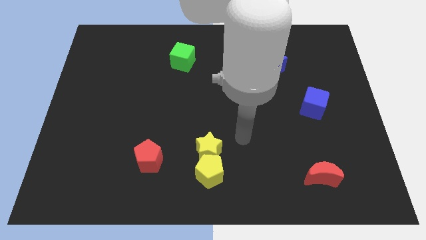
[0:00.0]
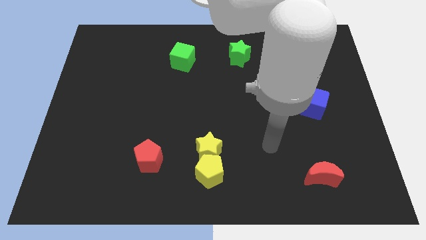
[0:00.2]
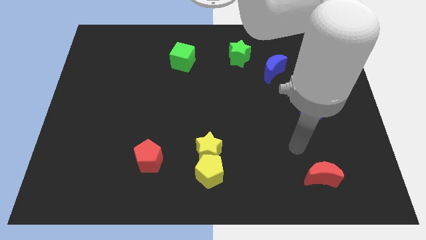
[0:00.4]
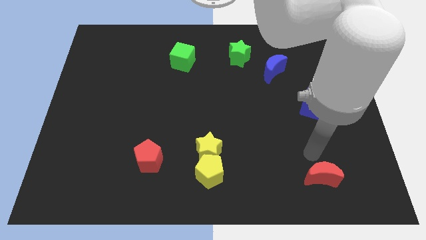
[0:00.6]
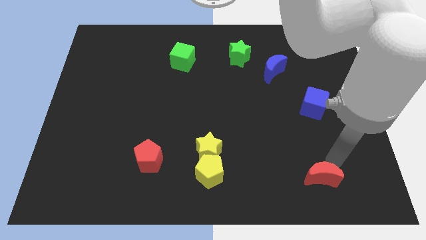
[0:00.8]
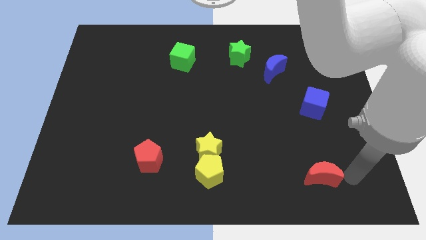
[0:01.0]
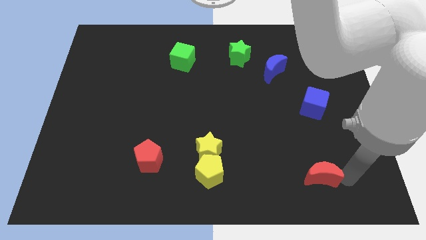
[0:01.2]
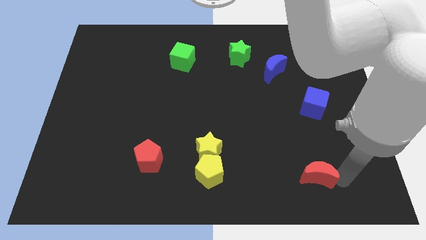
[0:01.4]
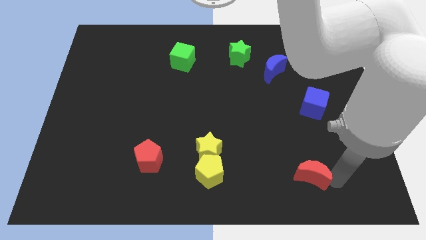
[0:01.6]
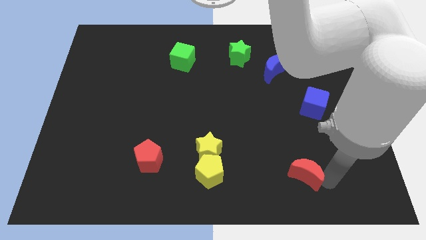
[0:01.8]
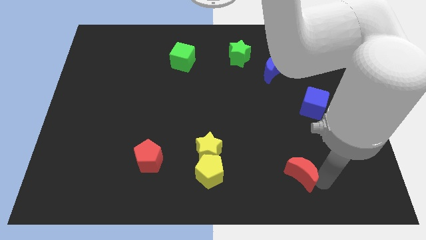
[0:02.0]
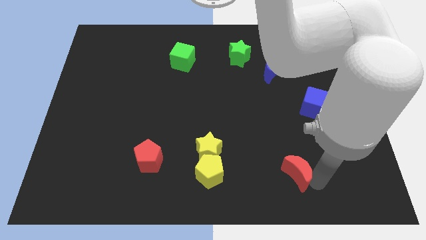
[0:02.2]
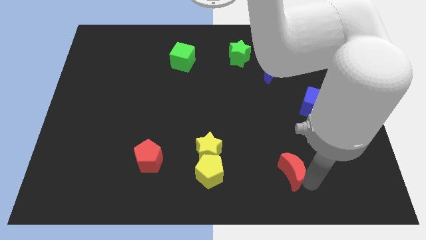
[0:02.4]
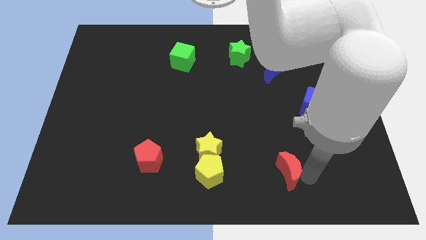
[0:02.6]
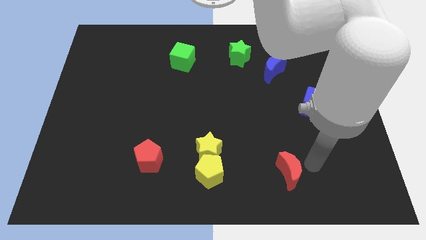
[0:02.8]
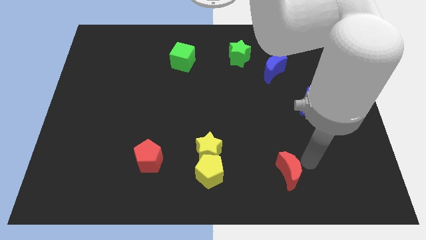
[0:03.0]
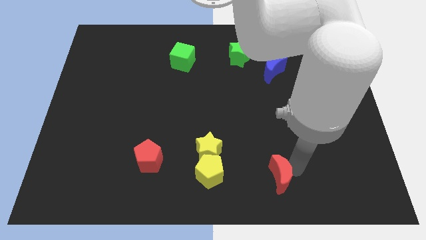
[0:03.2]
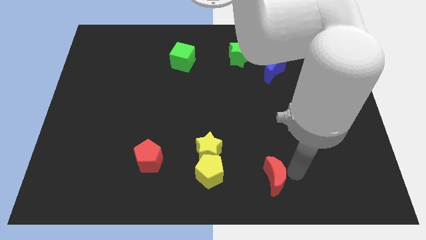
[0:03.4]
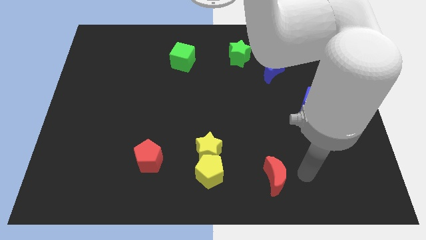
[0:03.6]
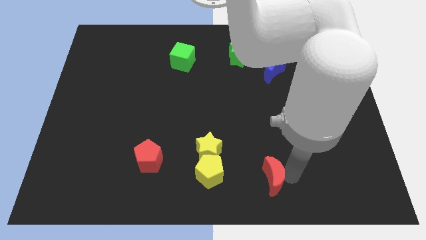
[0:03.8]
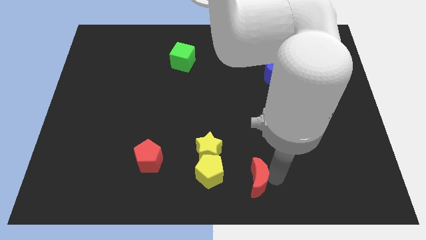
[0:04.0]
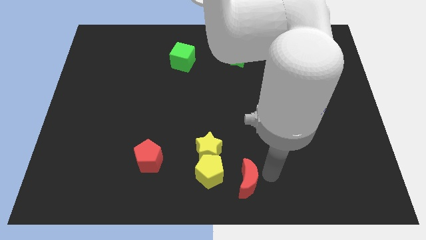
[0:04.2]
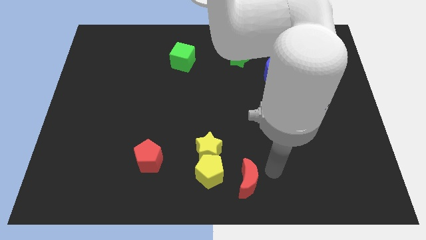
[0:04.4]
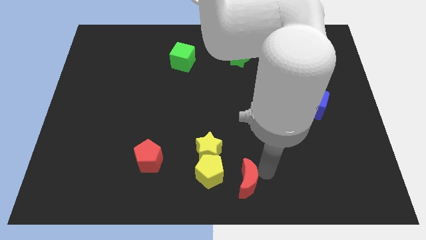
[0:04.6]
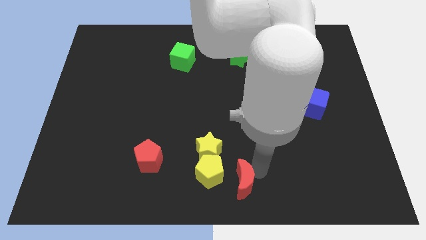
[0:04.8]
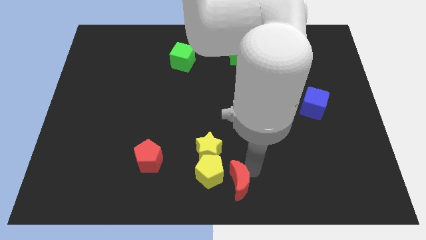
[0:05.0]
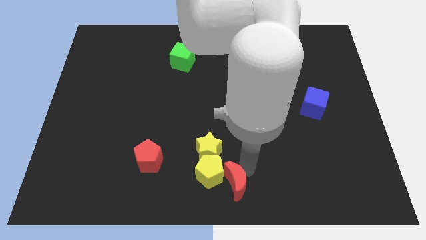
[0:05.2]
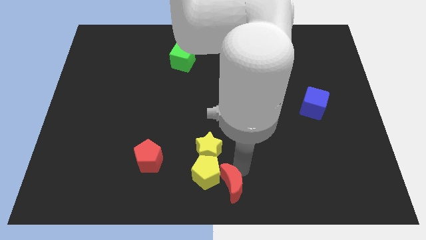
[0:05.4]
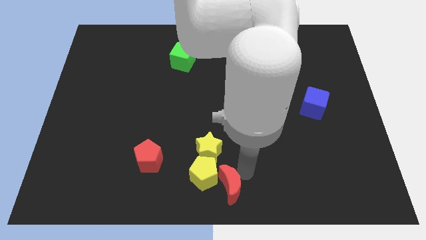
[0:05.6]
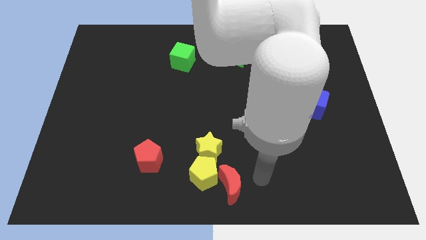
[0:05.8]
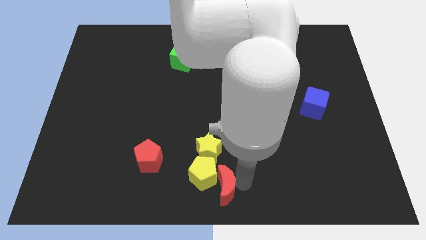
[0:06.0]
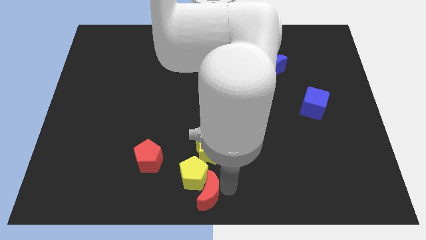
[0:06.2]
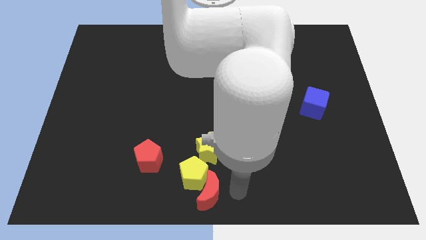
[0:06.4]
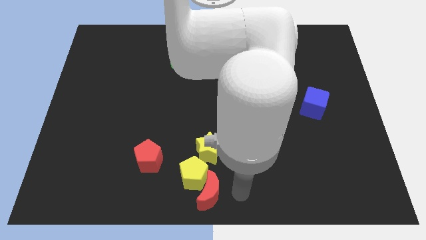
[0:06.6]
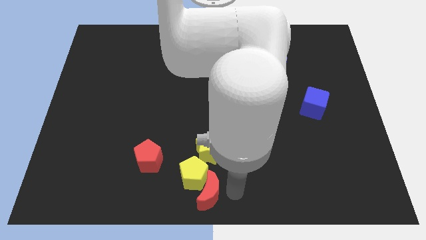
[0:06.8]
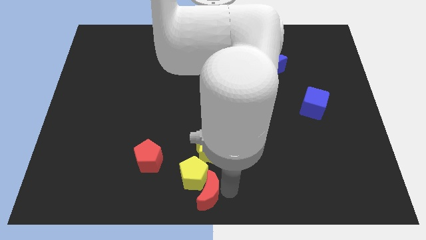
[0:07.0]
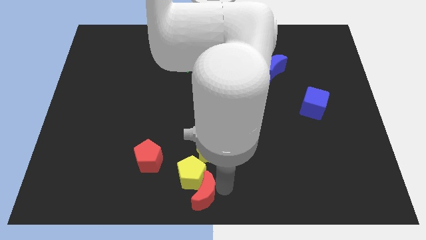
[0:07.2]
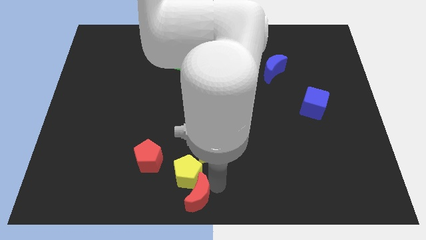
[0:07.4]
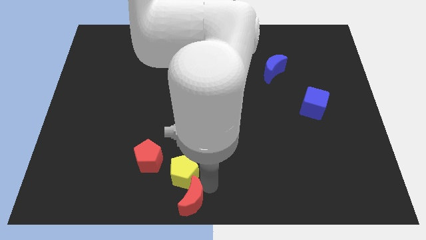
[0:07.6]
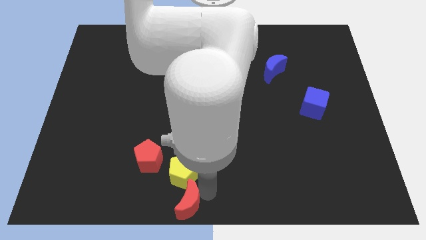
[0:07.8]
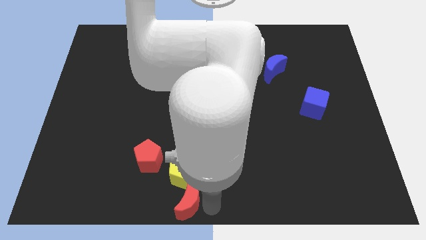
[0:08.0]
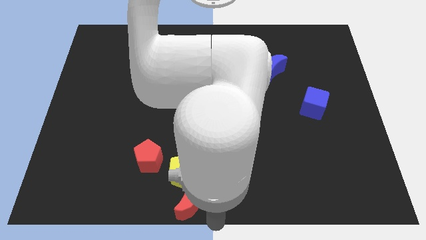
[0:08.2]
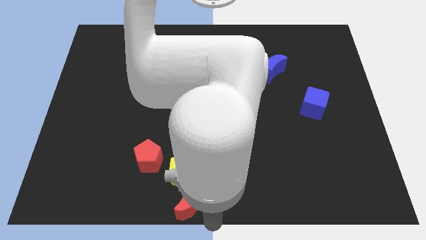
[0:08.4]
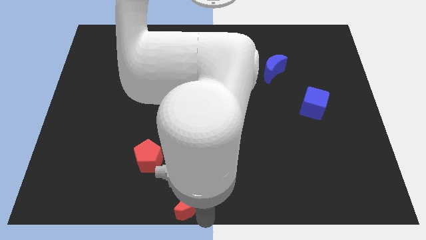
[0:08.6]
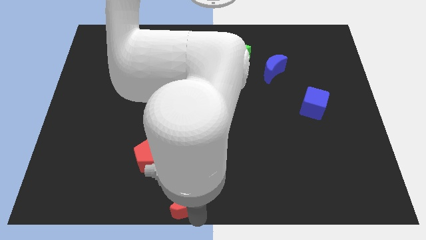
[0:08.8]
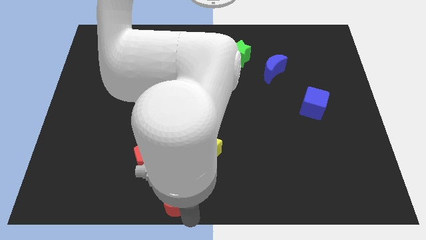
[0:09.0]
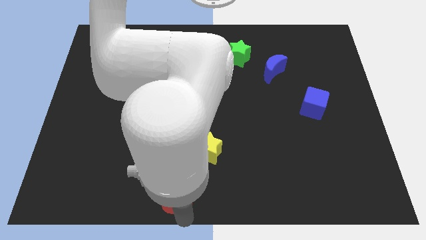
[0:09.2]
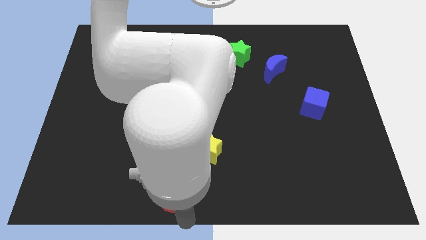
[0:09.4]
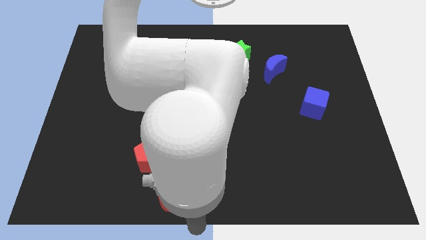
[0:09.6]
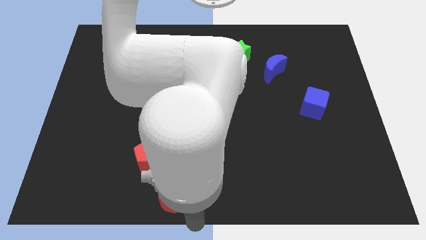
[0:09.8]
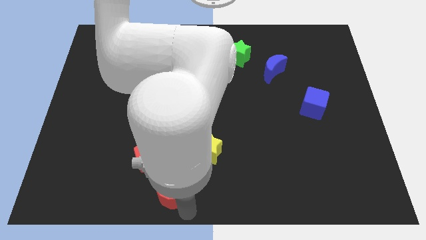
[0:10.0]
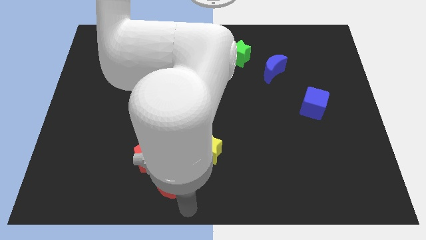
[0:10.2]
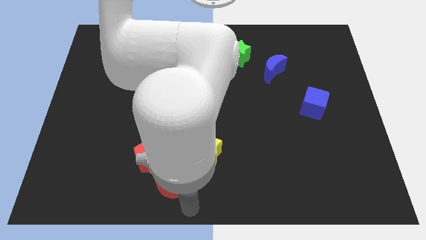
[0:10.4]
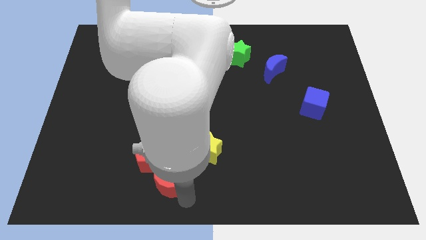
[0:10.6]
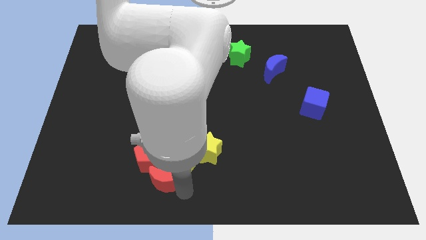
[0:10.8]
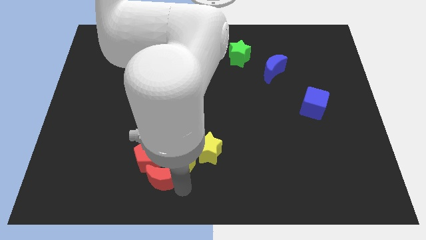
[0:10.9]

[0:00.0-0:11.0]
push the red moon next to the red pentagon

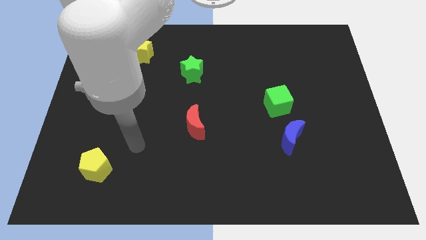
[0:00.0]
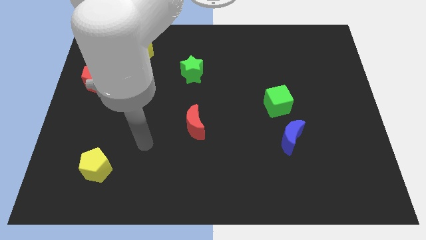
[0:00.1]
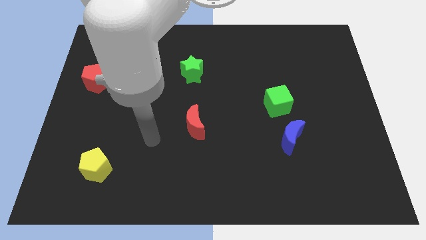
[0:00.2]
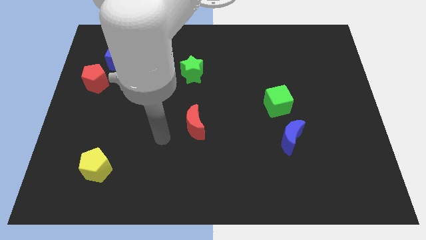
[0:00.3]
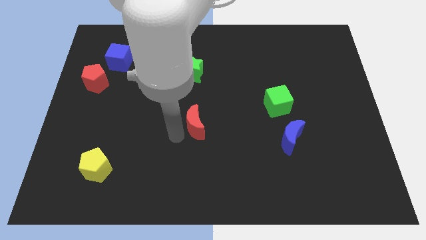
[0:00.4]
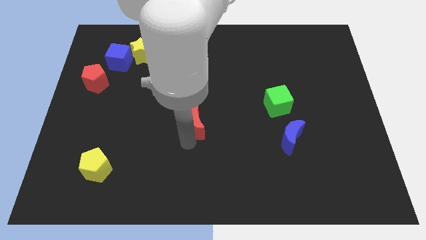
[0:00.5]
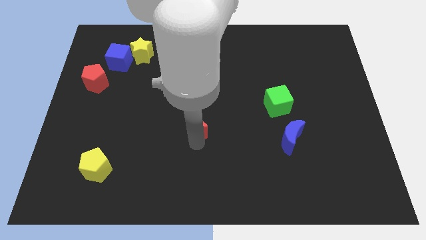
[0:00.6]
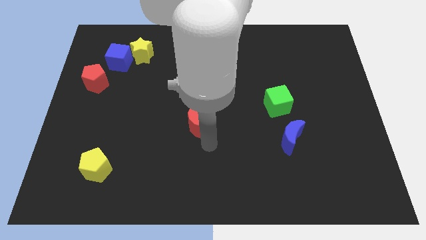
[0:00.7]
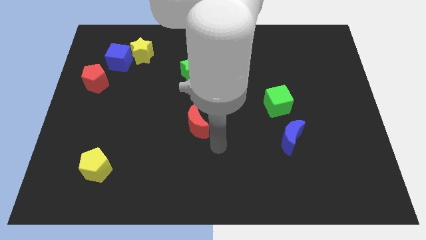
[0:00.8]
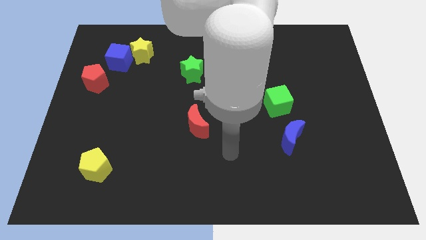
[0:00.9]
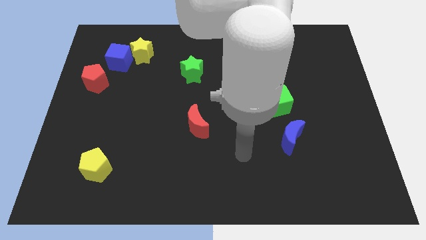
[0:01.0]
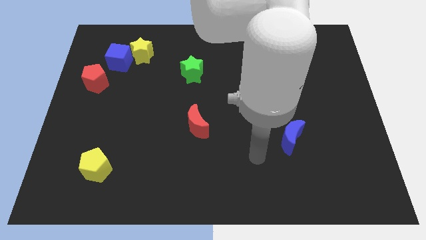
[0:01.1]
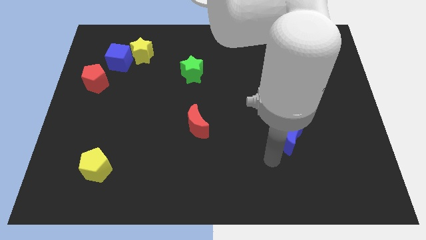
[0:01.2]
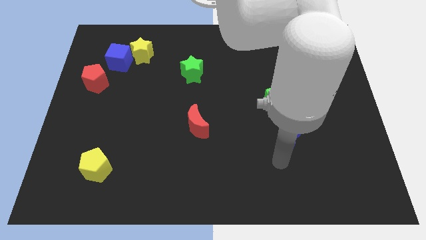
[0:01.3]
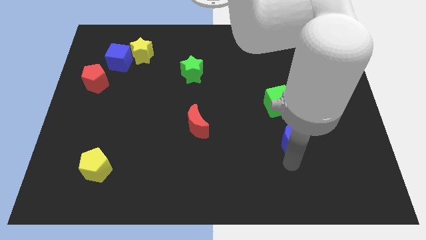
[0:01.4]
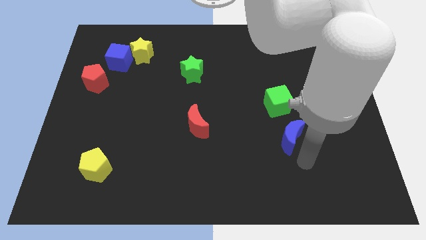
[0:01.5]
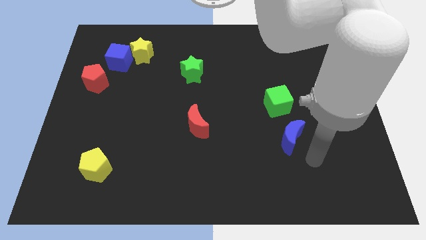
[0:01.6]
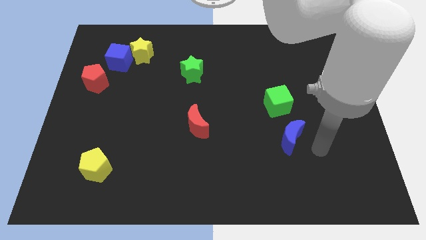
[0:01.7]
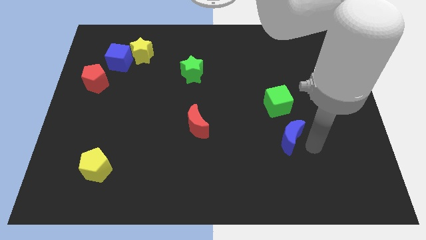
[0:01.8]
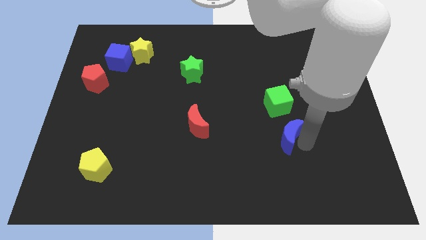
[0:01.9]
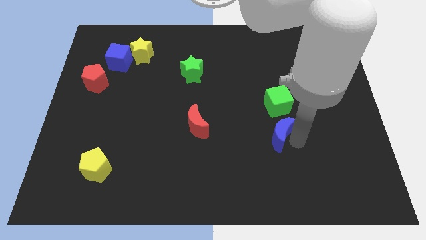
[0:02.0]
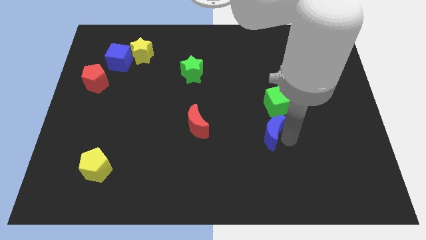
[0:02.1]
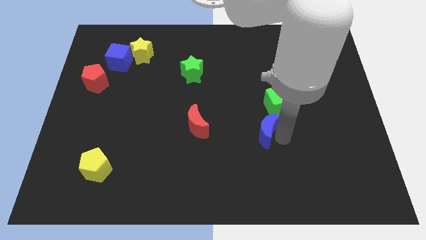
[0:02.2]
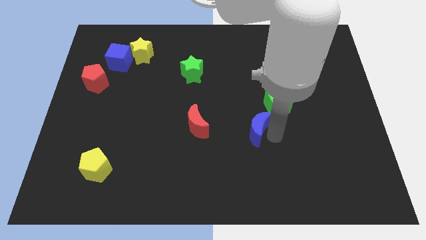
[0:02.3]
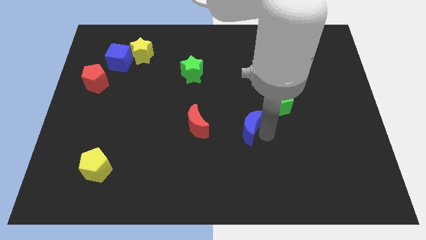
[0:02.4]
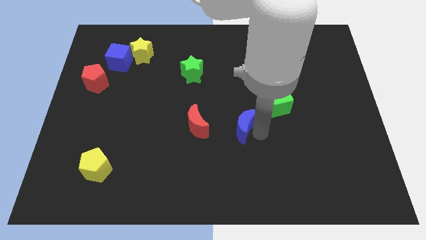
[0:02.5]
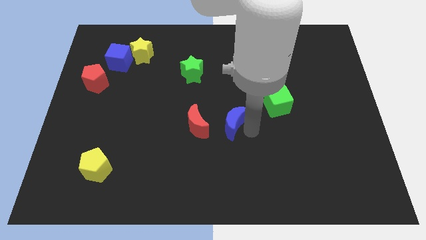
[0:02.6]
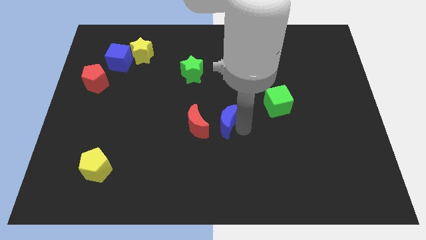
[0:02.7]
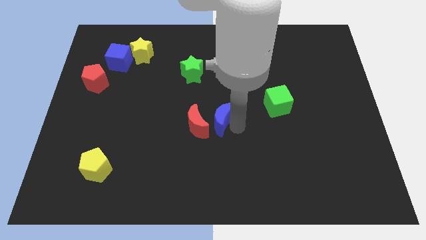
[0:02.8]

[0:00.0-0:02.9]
push the blue moon next to the red moon
